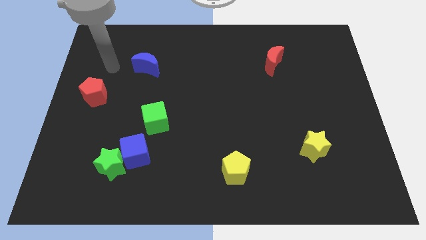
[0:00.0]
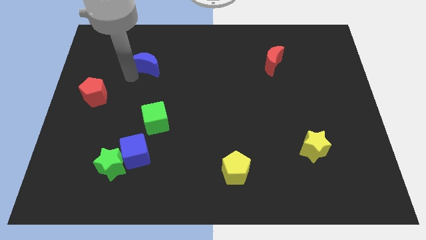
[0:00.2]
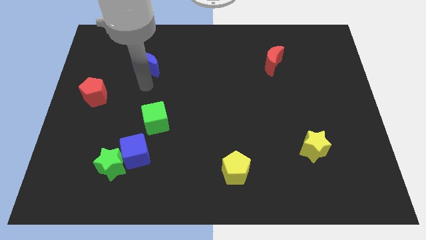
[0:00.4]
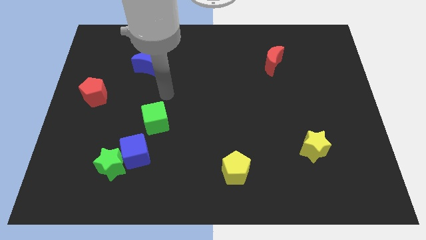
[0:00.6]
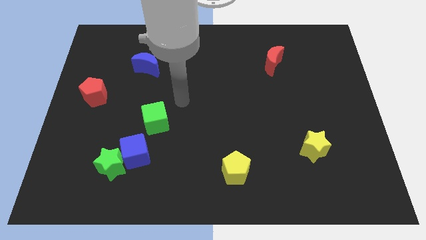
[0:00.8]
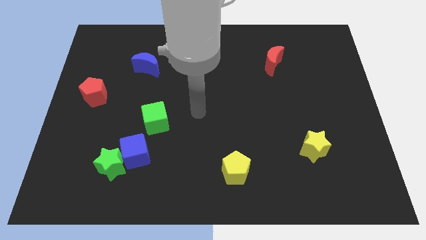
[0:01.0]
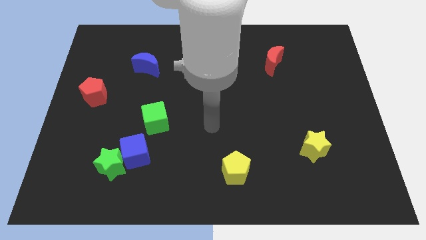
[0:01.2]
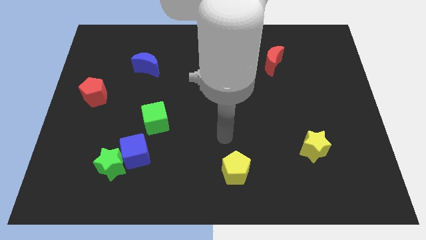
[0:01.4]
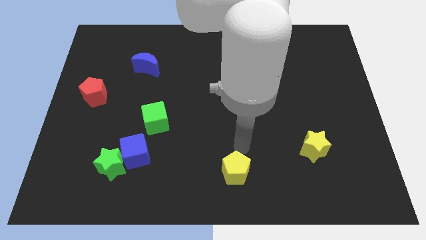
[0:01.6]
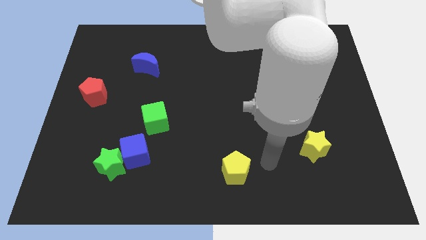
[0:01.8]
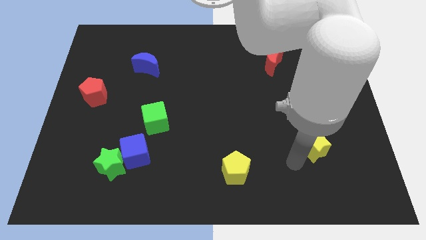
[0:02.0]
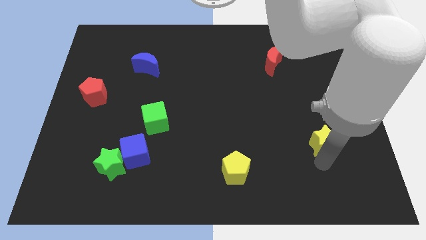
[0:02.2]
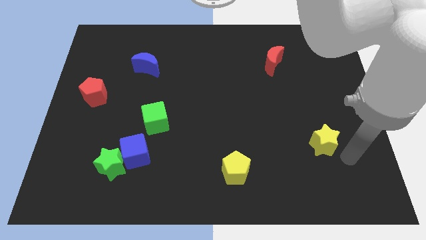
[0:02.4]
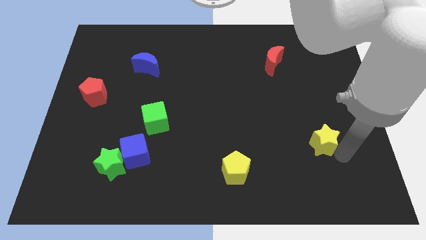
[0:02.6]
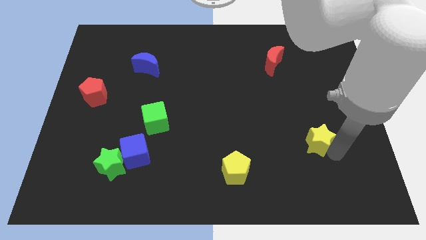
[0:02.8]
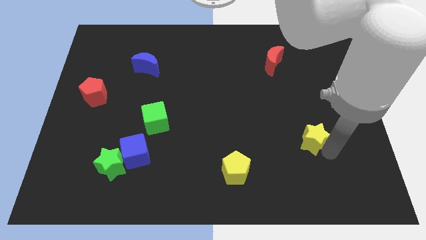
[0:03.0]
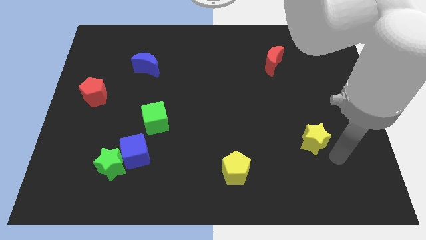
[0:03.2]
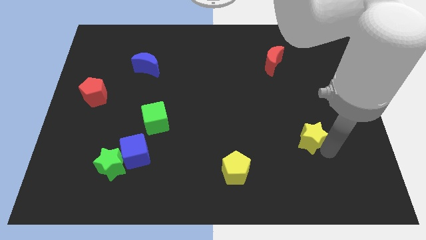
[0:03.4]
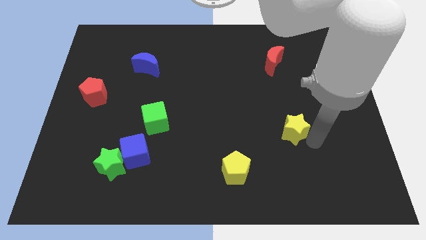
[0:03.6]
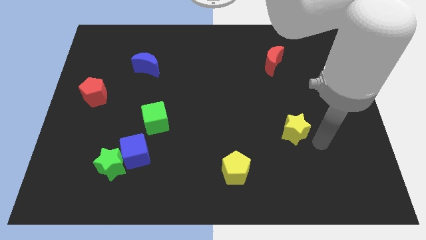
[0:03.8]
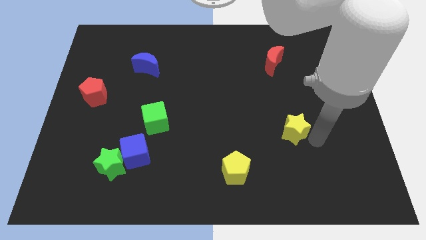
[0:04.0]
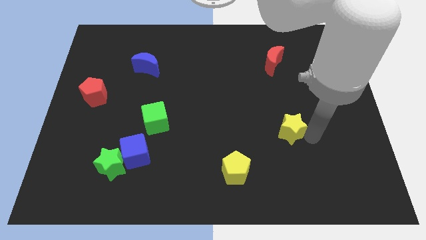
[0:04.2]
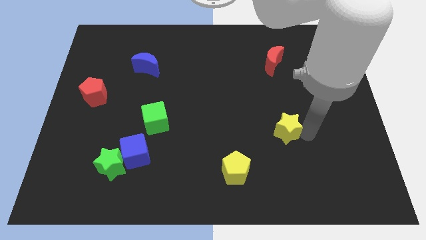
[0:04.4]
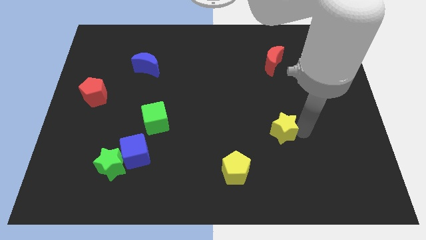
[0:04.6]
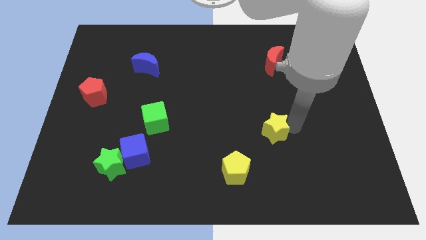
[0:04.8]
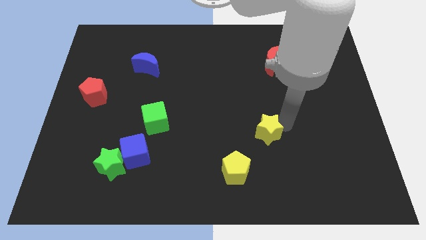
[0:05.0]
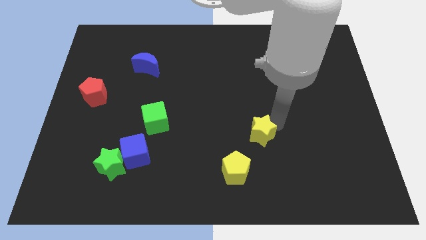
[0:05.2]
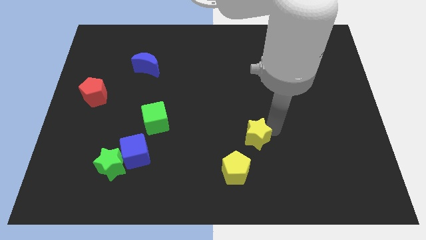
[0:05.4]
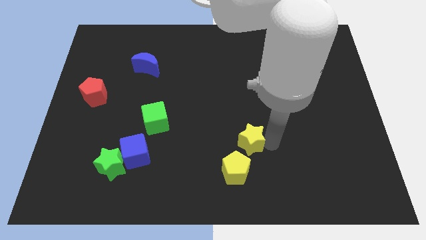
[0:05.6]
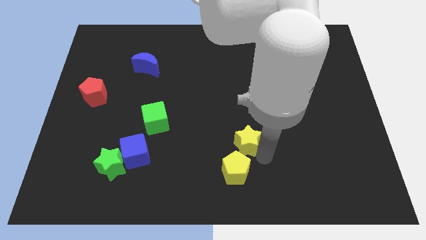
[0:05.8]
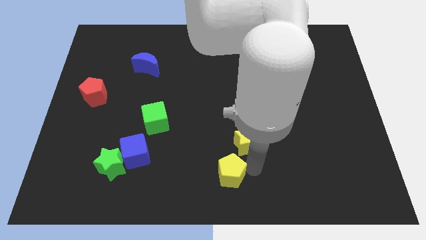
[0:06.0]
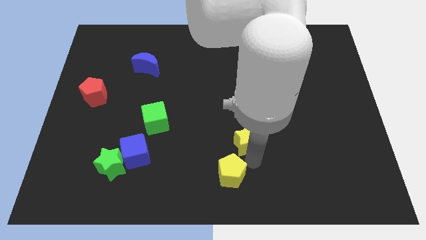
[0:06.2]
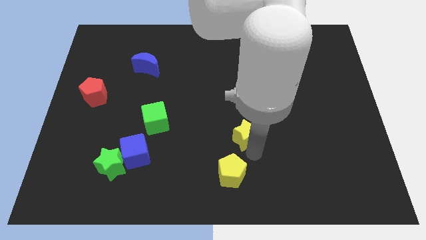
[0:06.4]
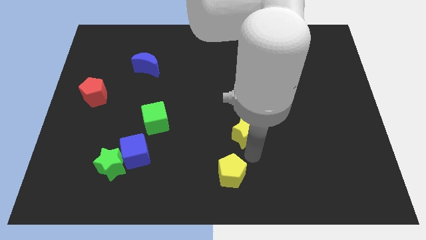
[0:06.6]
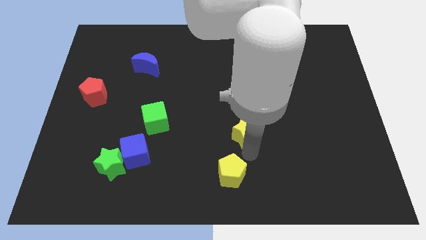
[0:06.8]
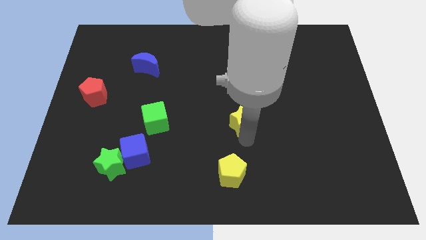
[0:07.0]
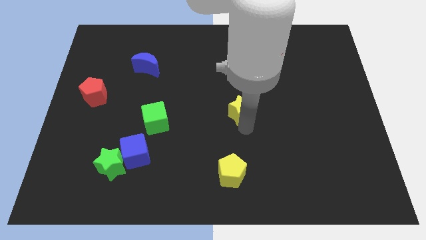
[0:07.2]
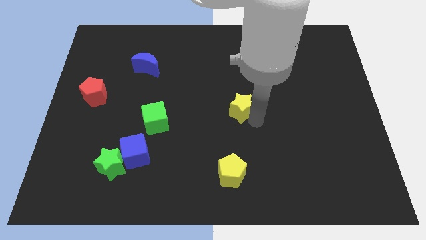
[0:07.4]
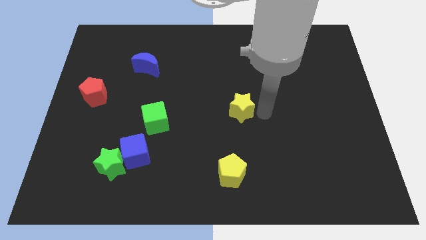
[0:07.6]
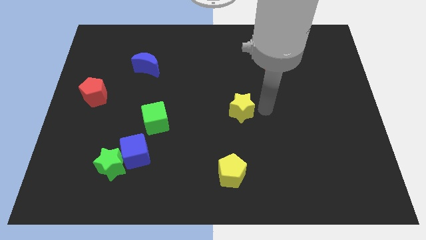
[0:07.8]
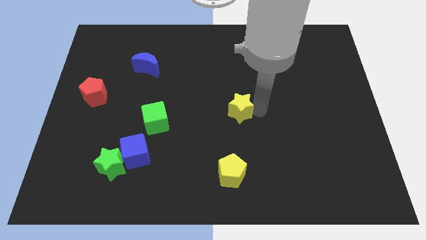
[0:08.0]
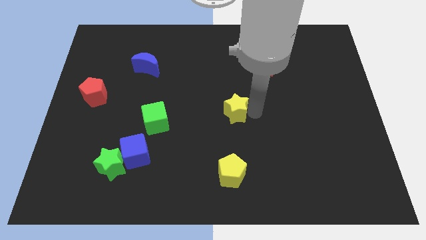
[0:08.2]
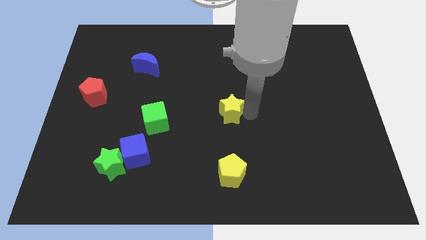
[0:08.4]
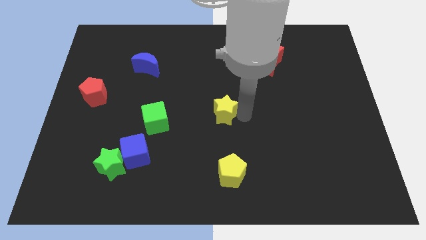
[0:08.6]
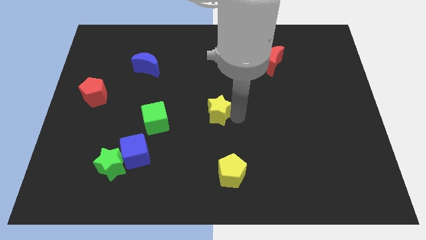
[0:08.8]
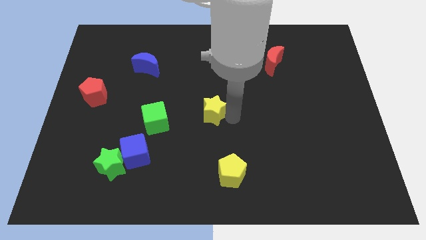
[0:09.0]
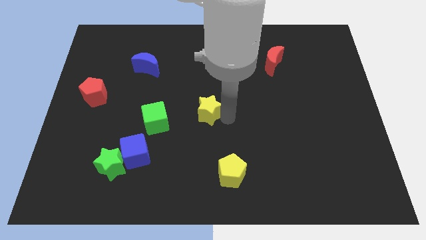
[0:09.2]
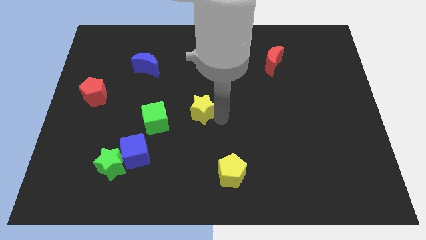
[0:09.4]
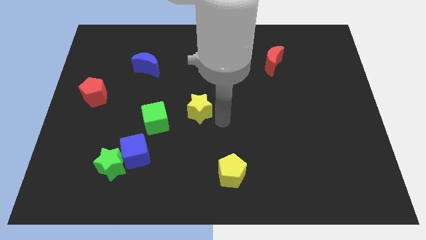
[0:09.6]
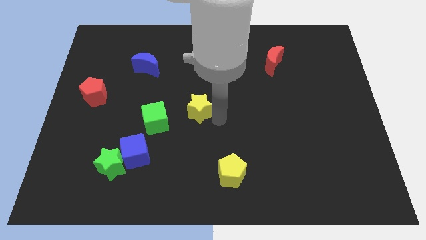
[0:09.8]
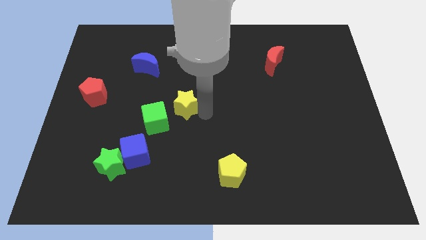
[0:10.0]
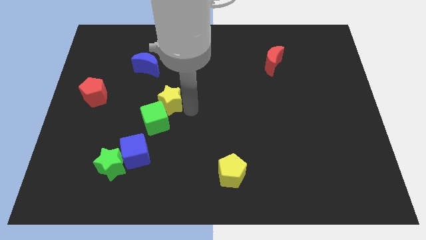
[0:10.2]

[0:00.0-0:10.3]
move the yellow star to the top side of the green cube

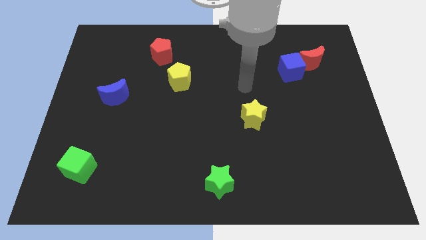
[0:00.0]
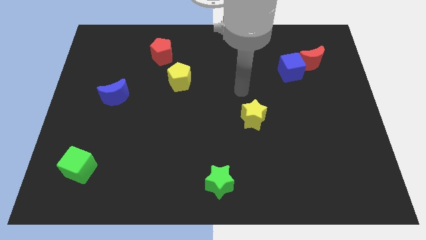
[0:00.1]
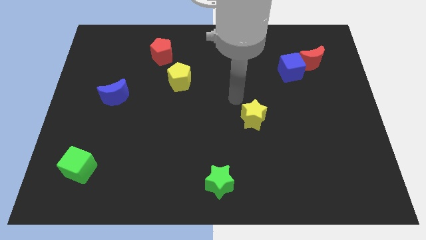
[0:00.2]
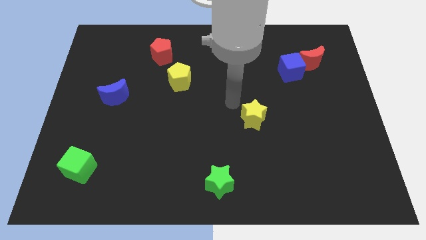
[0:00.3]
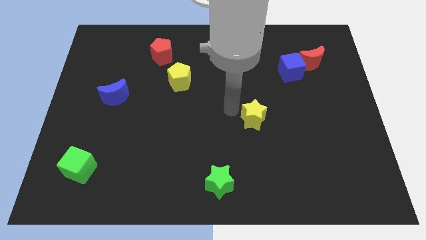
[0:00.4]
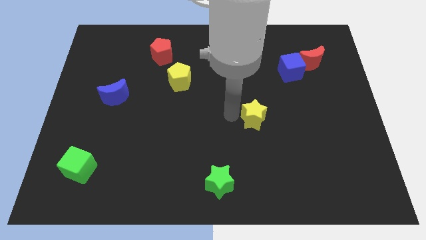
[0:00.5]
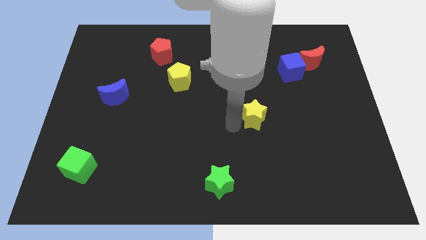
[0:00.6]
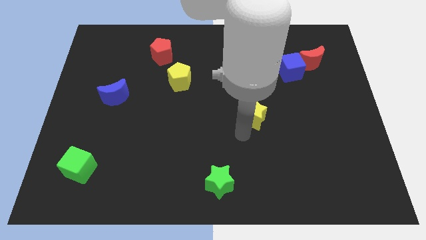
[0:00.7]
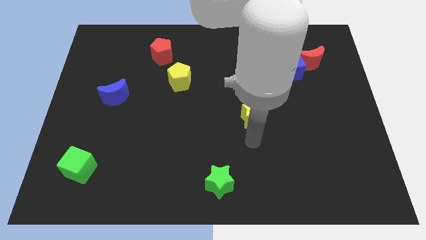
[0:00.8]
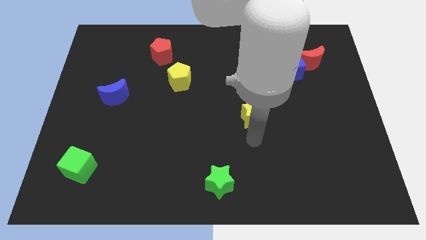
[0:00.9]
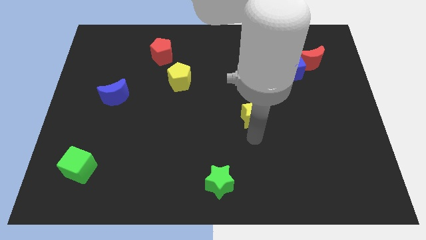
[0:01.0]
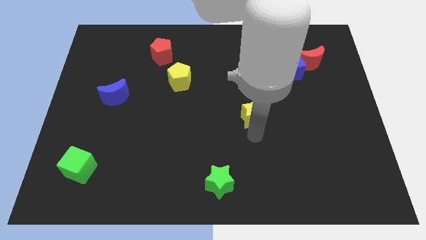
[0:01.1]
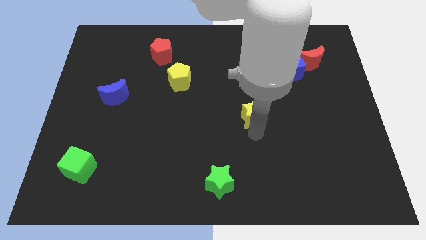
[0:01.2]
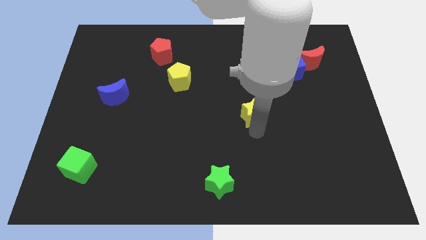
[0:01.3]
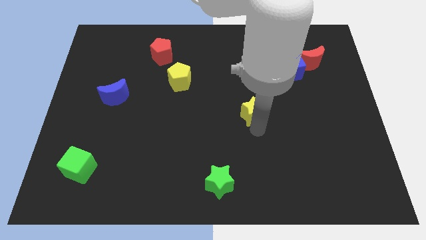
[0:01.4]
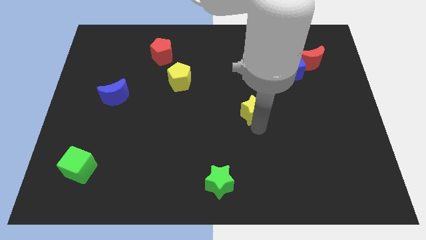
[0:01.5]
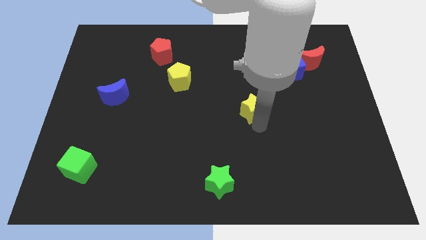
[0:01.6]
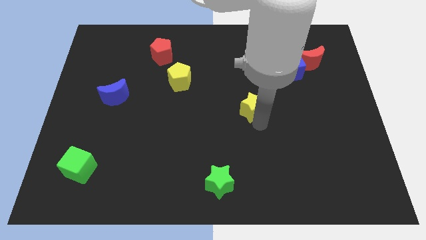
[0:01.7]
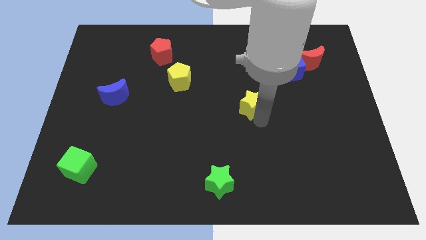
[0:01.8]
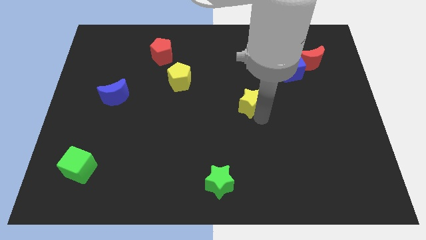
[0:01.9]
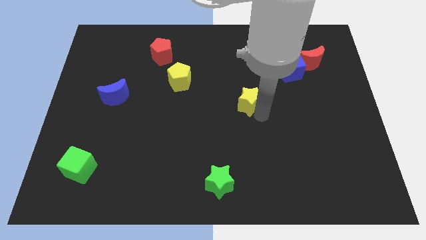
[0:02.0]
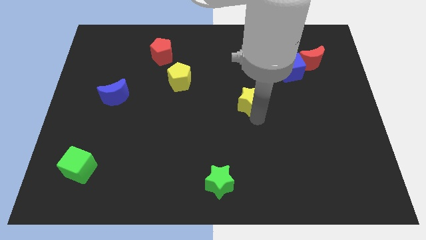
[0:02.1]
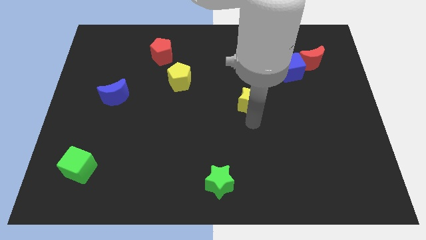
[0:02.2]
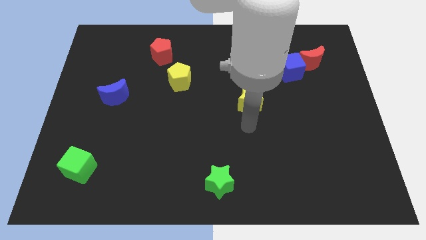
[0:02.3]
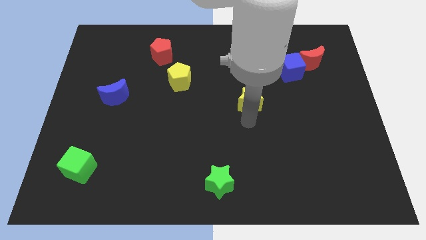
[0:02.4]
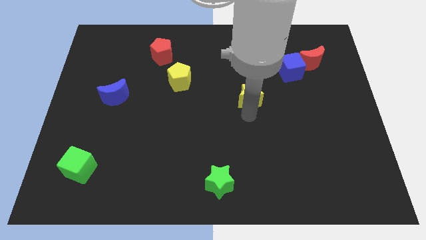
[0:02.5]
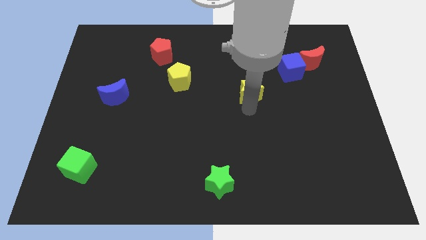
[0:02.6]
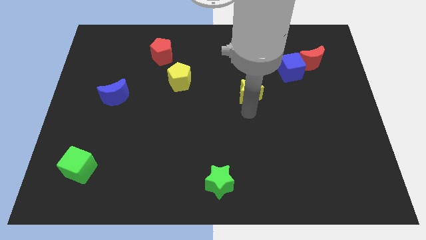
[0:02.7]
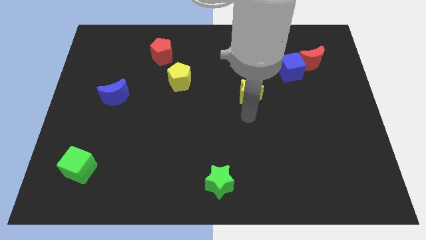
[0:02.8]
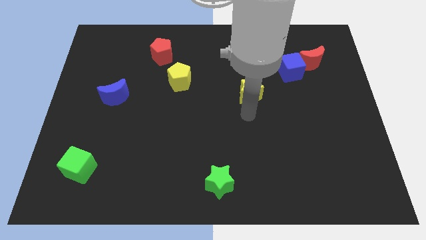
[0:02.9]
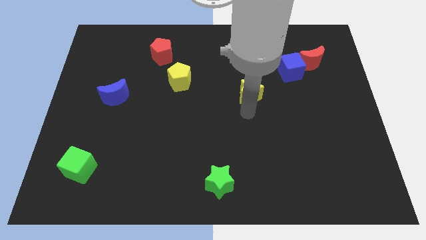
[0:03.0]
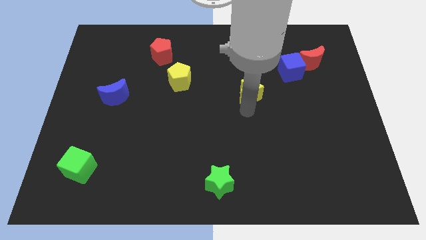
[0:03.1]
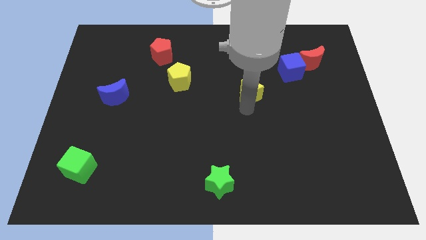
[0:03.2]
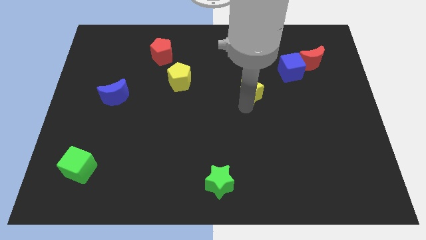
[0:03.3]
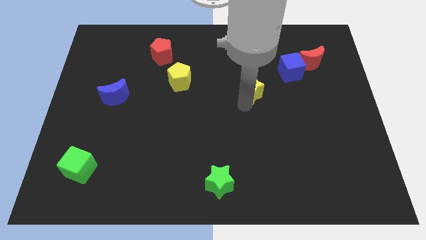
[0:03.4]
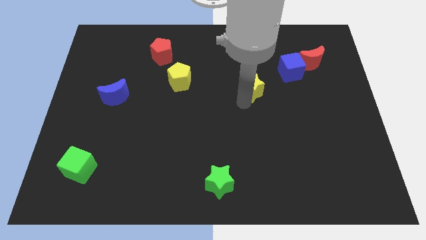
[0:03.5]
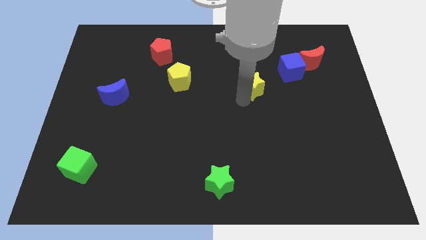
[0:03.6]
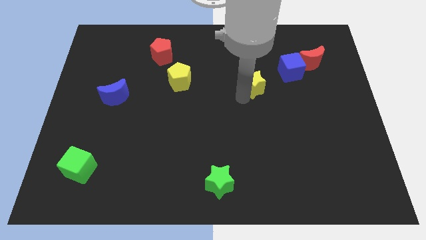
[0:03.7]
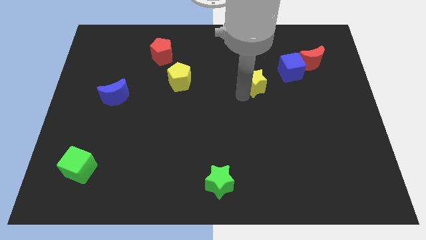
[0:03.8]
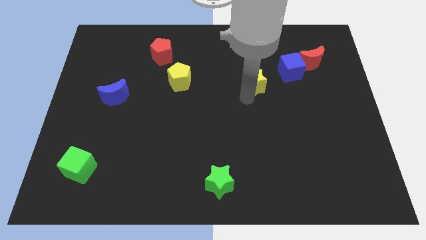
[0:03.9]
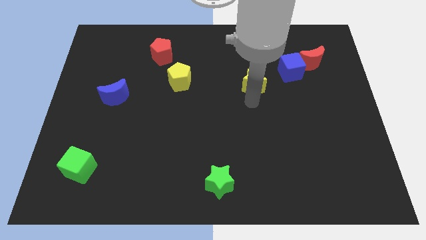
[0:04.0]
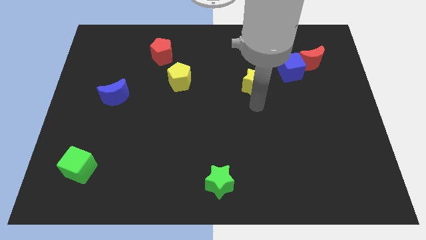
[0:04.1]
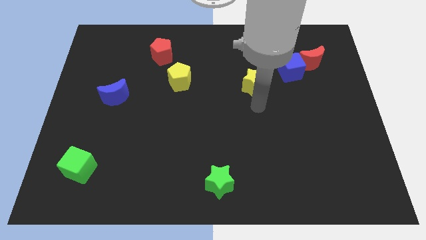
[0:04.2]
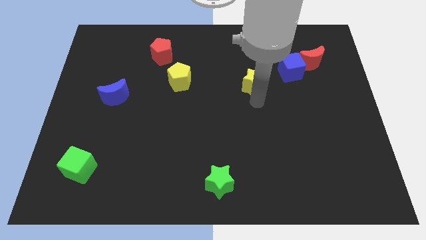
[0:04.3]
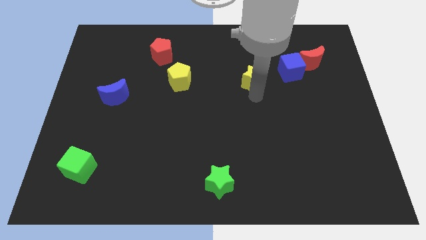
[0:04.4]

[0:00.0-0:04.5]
push the yellow star just left of the blue cube
